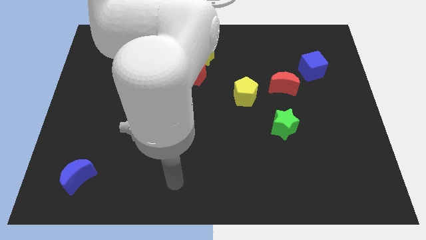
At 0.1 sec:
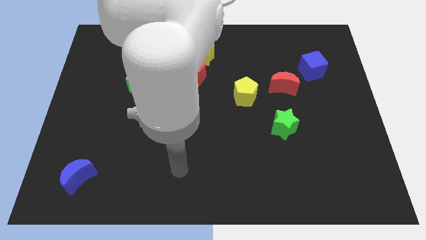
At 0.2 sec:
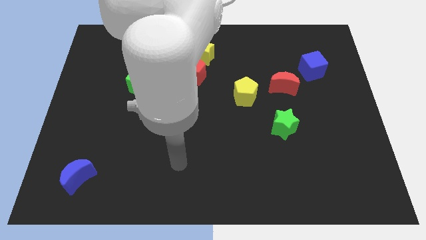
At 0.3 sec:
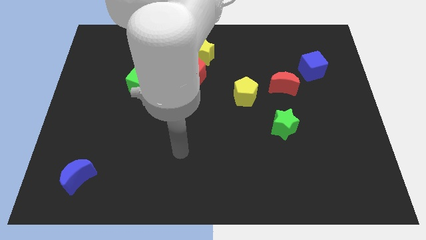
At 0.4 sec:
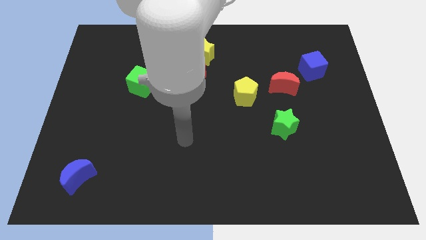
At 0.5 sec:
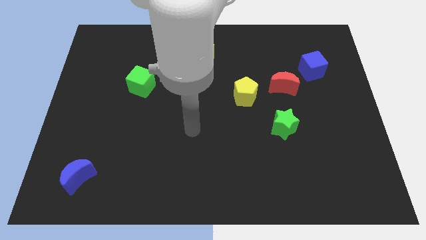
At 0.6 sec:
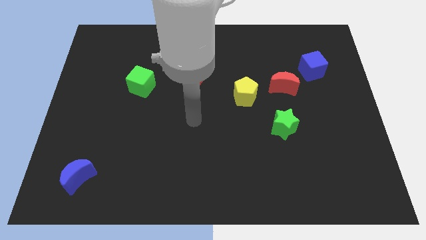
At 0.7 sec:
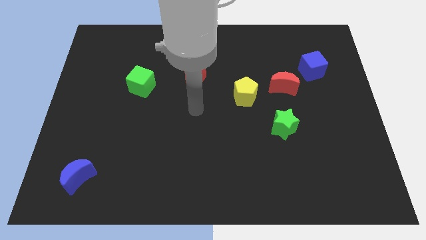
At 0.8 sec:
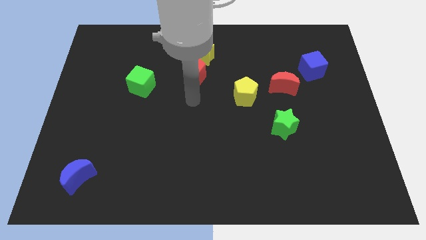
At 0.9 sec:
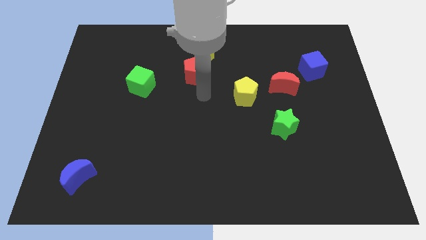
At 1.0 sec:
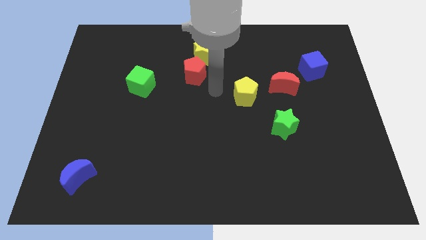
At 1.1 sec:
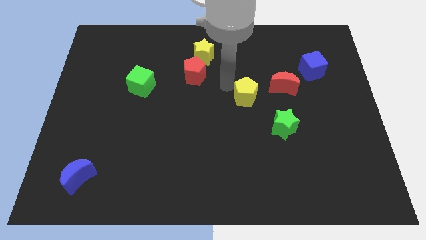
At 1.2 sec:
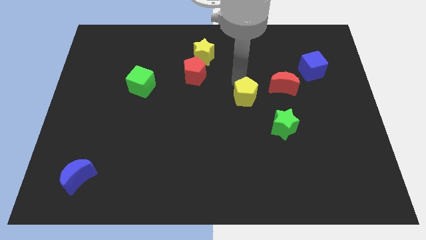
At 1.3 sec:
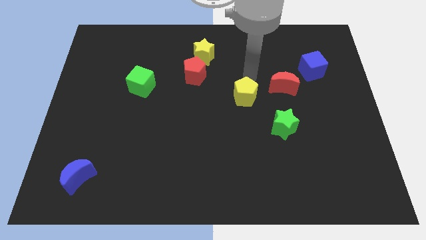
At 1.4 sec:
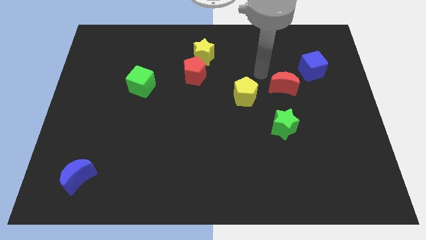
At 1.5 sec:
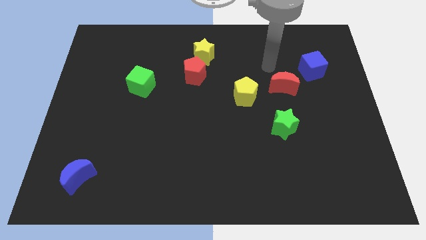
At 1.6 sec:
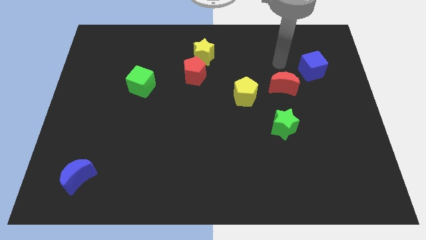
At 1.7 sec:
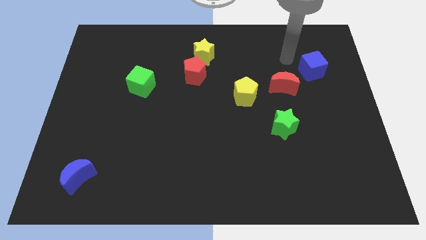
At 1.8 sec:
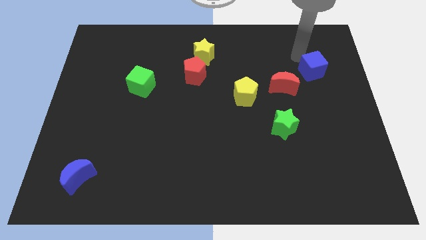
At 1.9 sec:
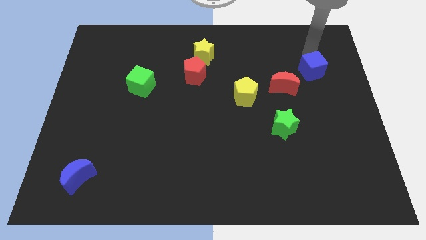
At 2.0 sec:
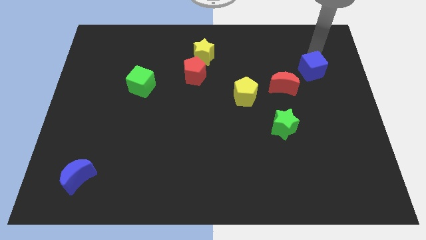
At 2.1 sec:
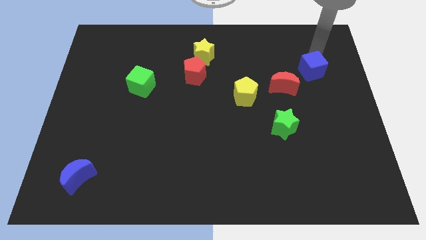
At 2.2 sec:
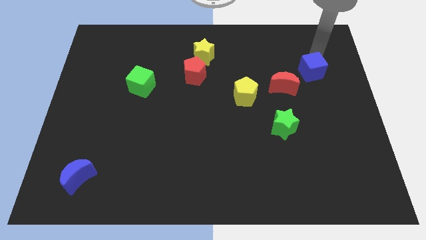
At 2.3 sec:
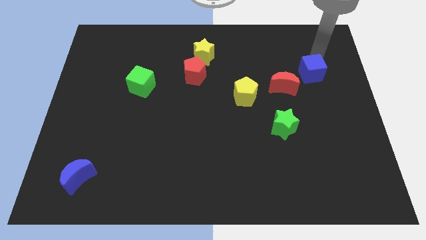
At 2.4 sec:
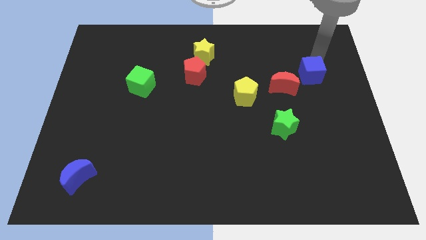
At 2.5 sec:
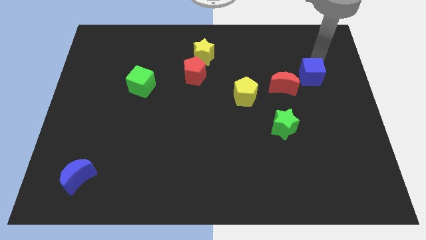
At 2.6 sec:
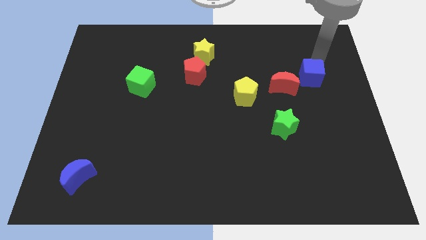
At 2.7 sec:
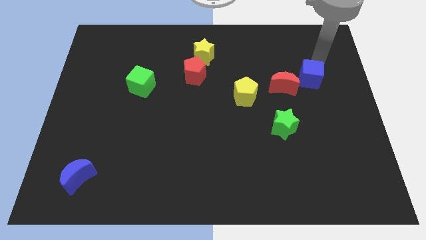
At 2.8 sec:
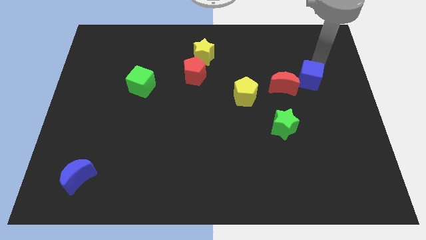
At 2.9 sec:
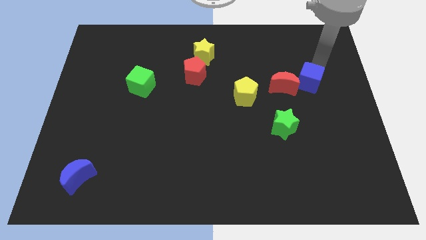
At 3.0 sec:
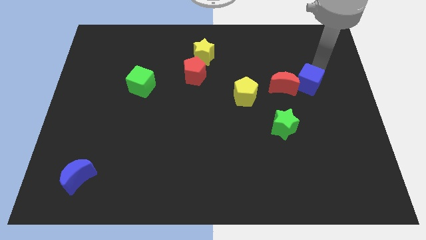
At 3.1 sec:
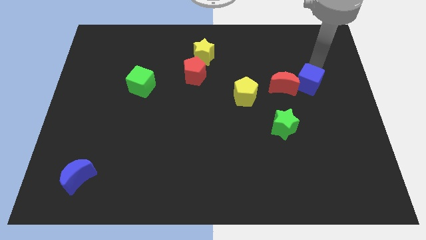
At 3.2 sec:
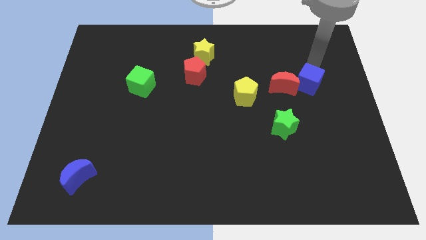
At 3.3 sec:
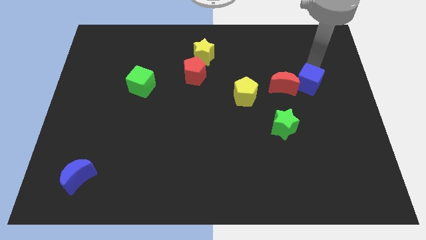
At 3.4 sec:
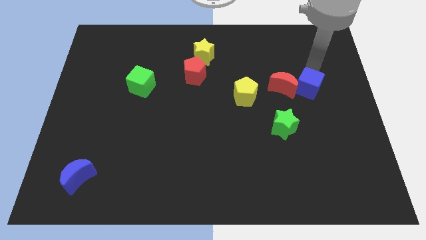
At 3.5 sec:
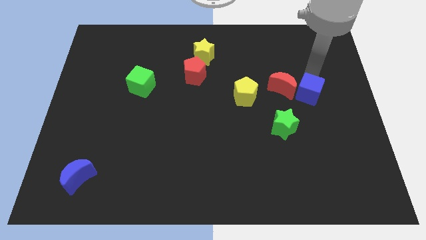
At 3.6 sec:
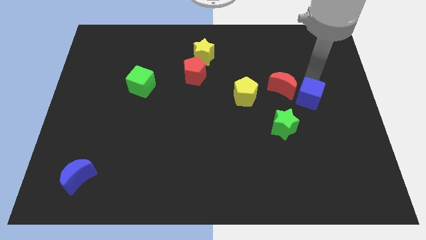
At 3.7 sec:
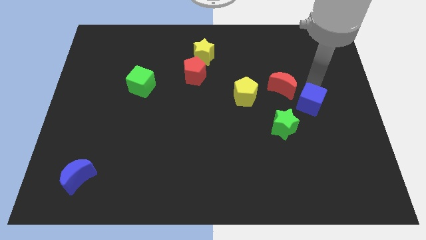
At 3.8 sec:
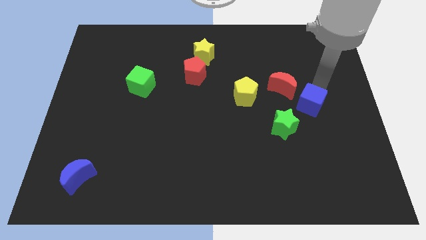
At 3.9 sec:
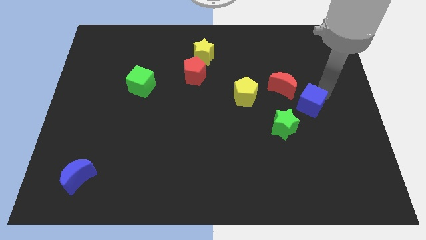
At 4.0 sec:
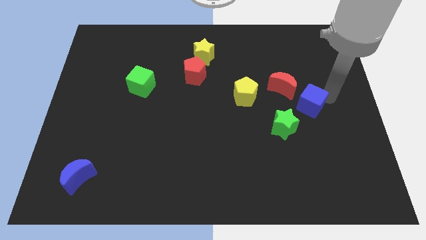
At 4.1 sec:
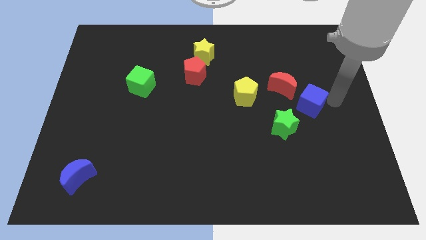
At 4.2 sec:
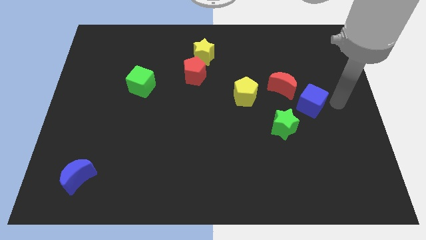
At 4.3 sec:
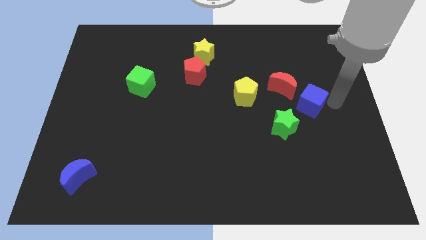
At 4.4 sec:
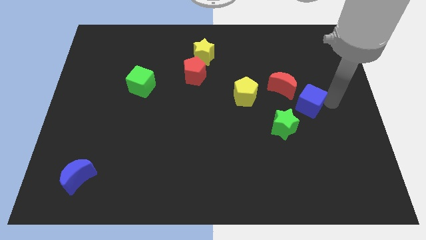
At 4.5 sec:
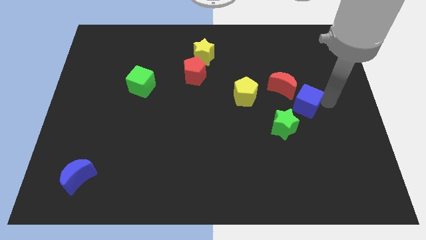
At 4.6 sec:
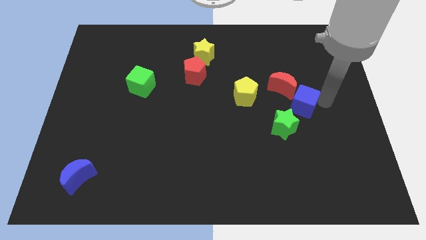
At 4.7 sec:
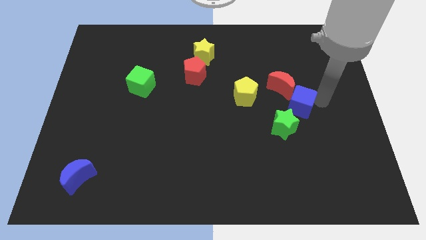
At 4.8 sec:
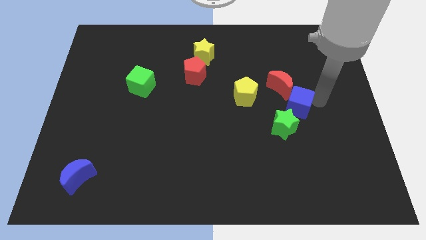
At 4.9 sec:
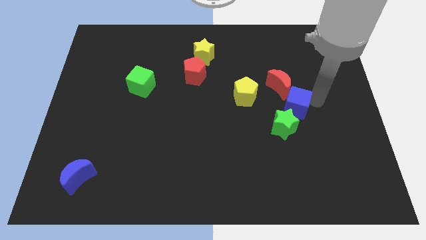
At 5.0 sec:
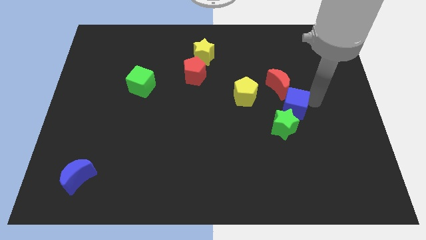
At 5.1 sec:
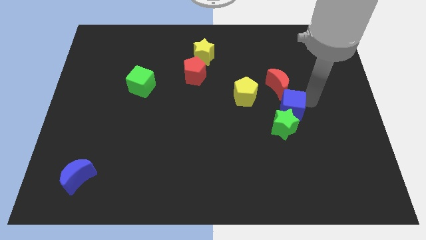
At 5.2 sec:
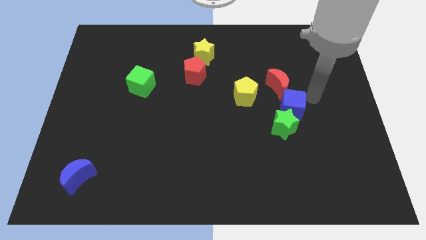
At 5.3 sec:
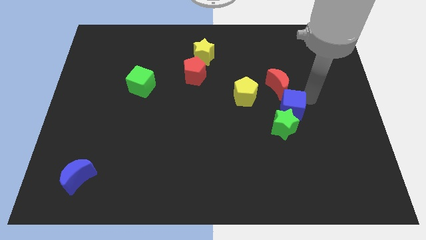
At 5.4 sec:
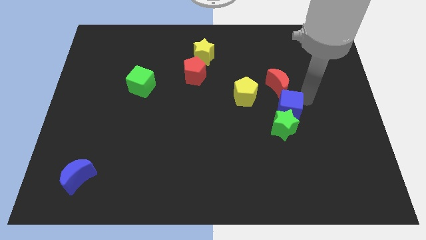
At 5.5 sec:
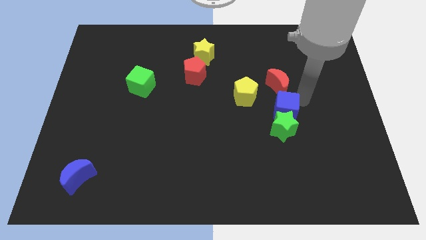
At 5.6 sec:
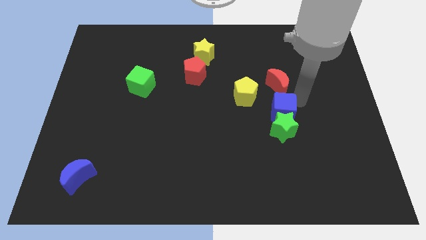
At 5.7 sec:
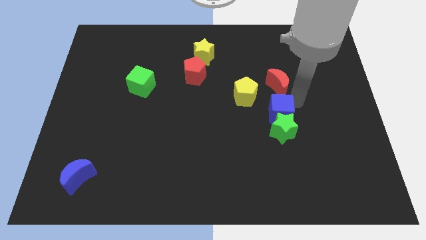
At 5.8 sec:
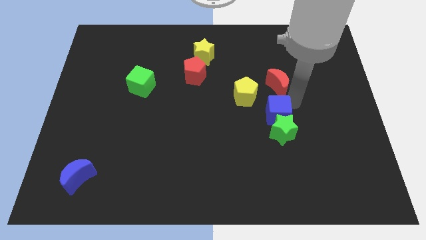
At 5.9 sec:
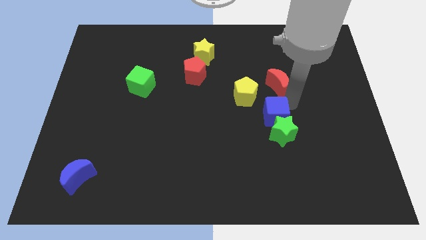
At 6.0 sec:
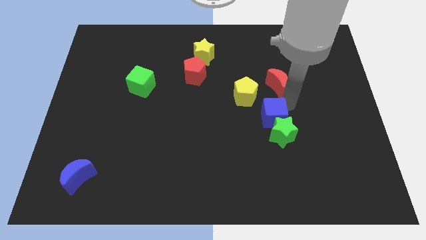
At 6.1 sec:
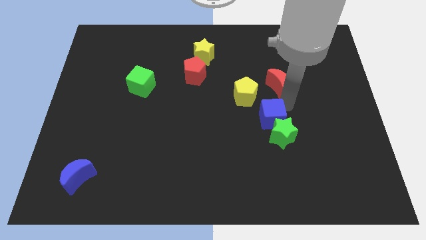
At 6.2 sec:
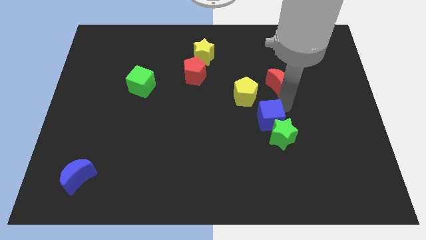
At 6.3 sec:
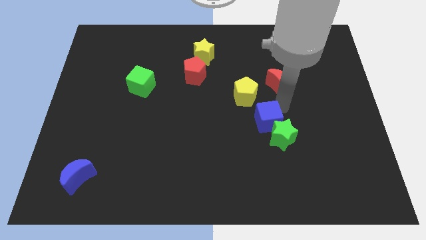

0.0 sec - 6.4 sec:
slide the blue cube diagonally down and left

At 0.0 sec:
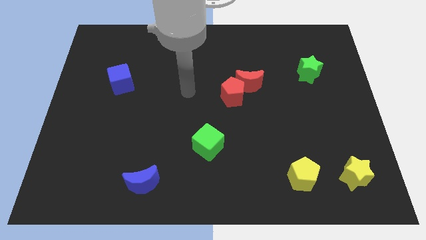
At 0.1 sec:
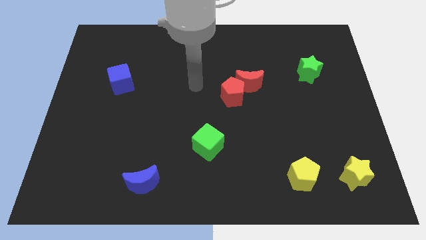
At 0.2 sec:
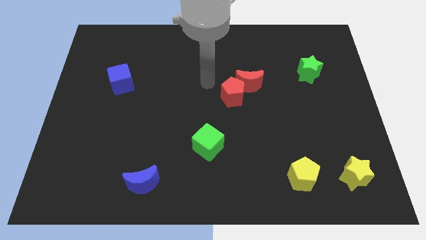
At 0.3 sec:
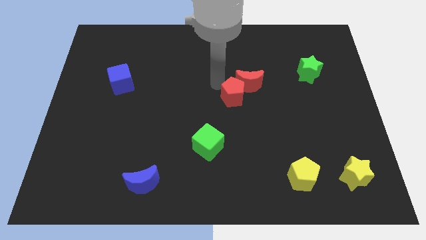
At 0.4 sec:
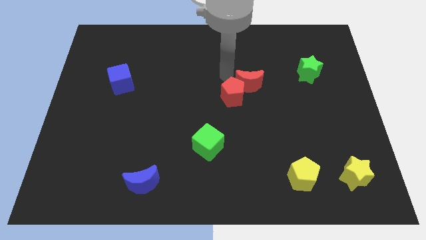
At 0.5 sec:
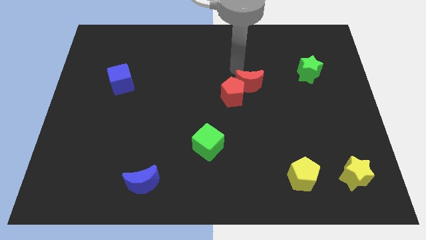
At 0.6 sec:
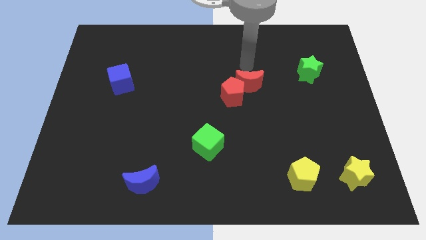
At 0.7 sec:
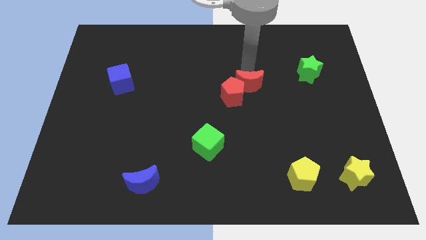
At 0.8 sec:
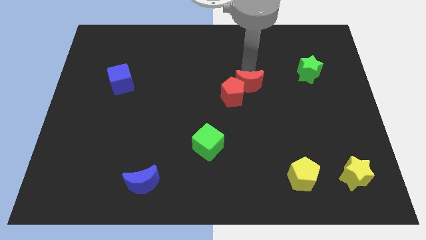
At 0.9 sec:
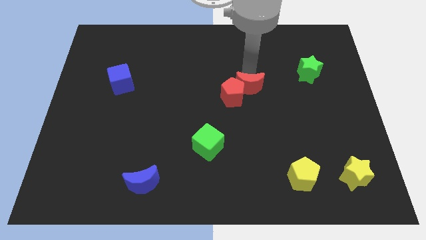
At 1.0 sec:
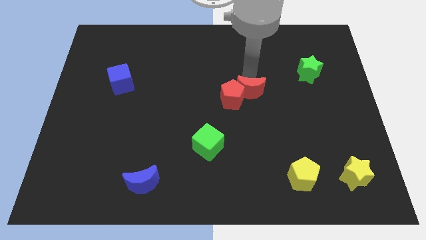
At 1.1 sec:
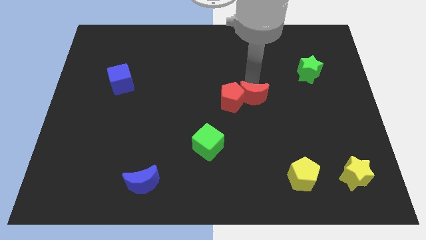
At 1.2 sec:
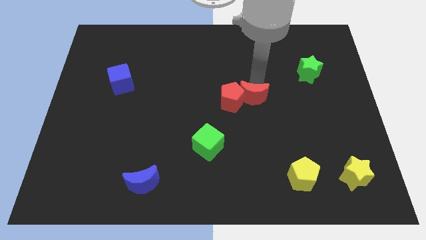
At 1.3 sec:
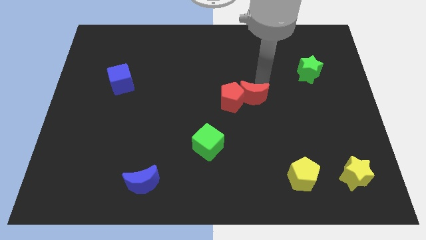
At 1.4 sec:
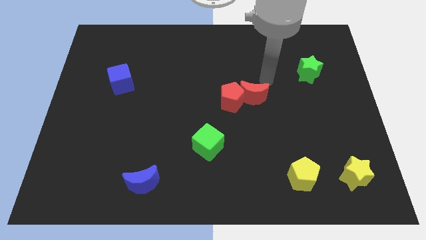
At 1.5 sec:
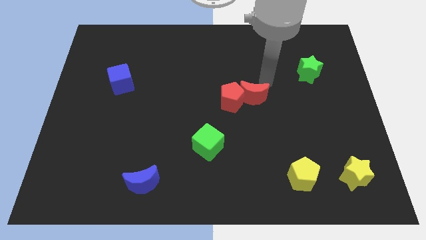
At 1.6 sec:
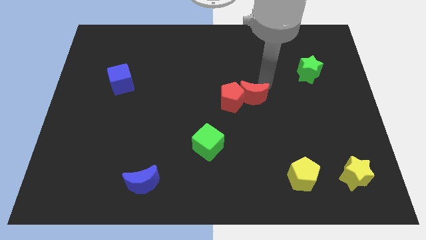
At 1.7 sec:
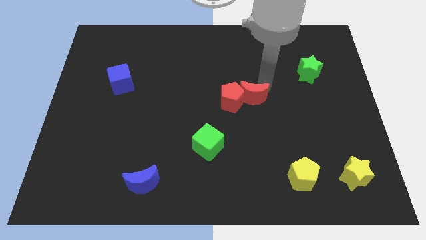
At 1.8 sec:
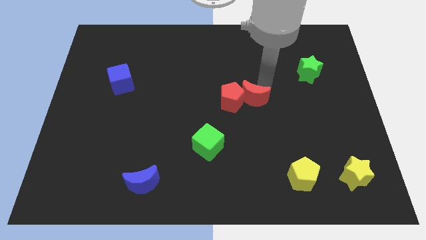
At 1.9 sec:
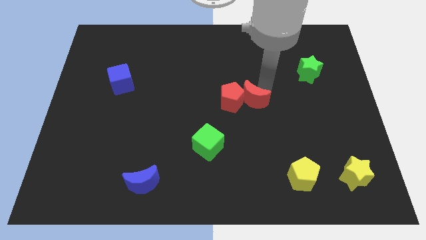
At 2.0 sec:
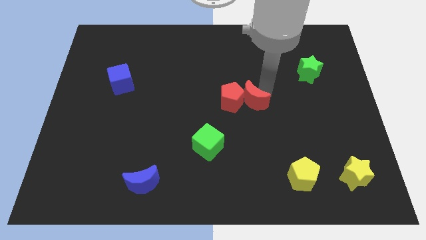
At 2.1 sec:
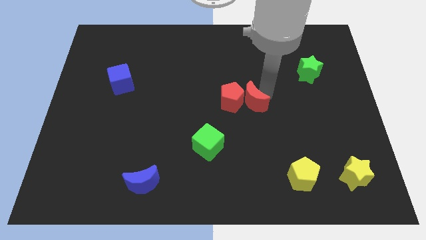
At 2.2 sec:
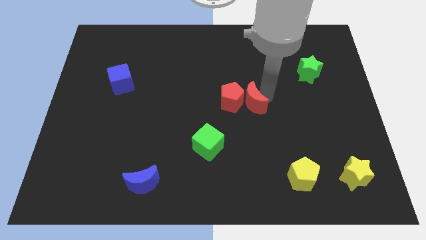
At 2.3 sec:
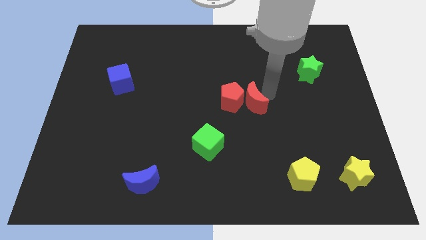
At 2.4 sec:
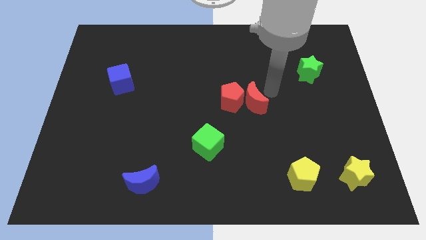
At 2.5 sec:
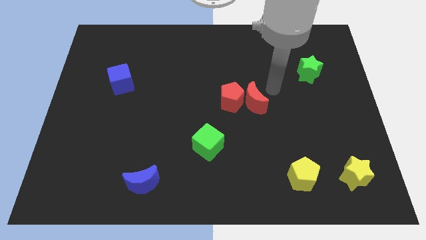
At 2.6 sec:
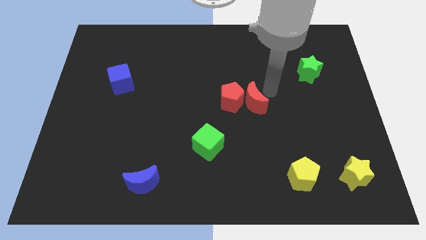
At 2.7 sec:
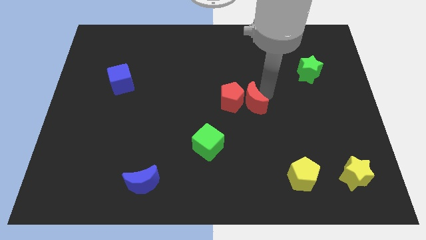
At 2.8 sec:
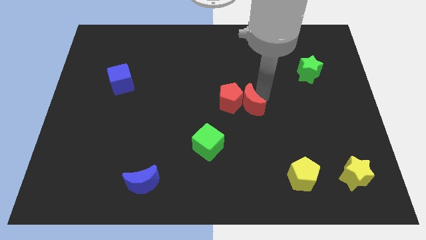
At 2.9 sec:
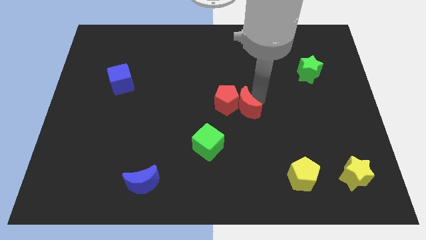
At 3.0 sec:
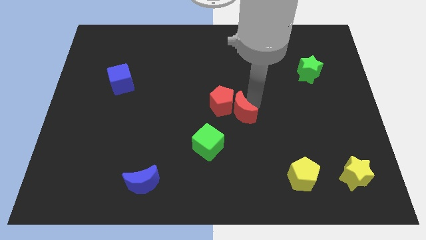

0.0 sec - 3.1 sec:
push the red moon a little diagonally downwards and left
